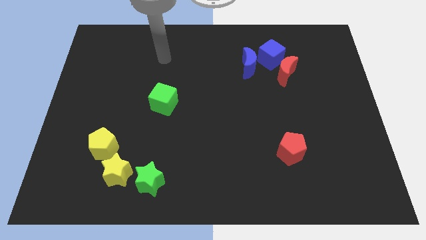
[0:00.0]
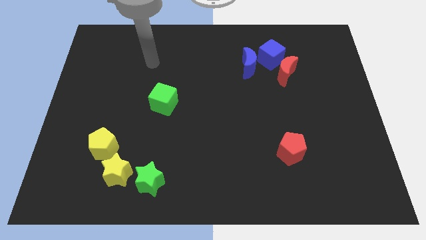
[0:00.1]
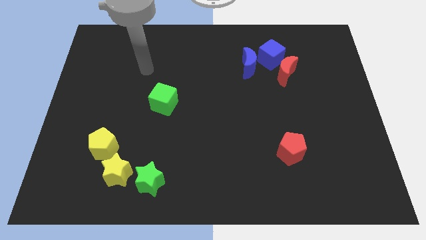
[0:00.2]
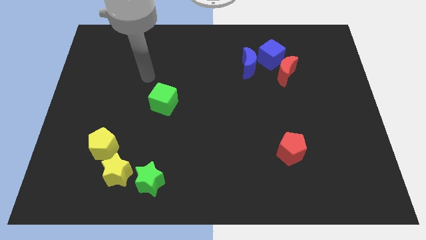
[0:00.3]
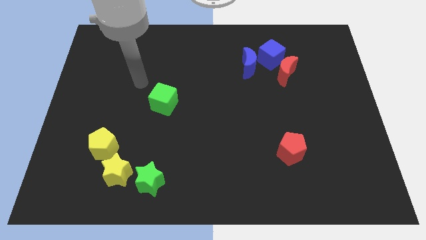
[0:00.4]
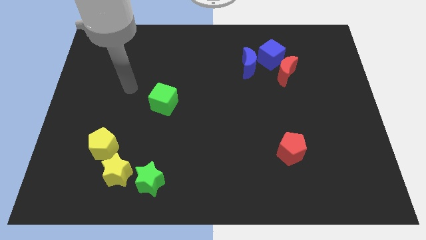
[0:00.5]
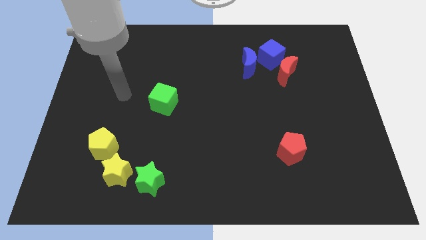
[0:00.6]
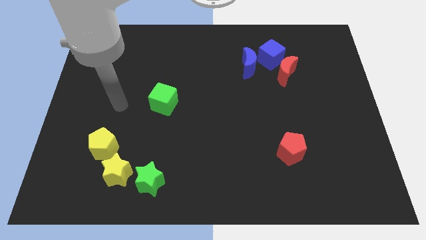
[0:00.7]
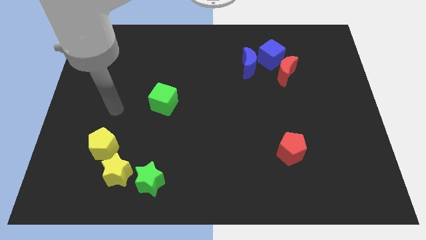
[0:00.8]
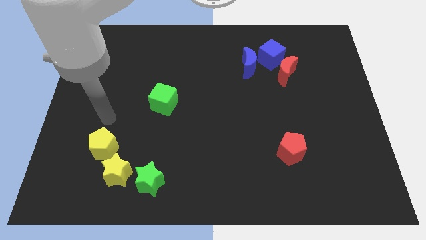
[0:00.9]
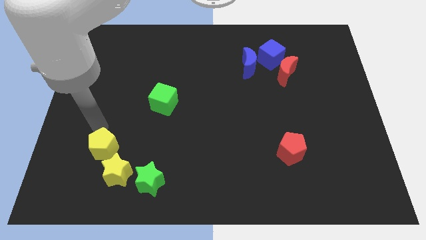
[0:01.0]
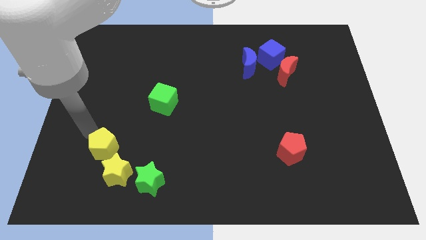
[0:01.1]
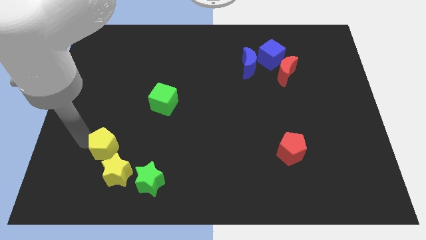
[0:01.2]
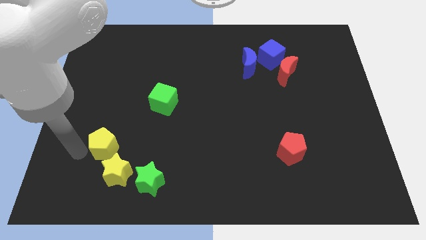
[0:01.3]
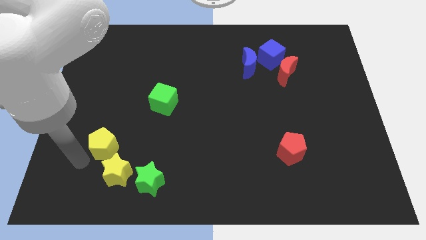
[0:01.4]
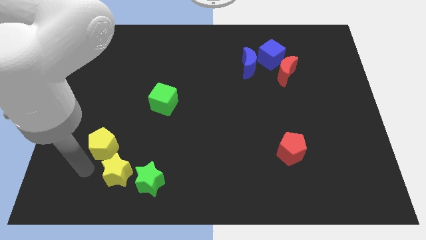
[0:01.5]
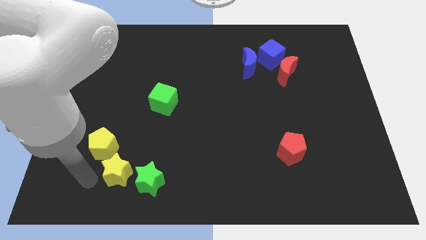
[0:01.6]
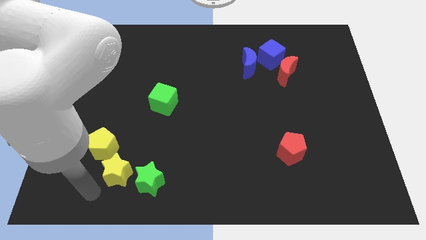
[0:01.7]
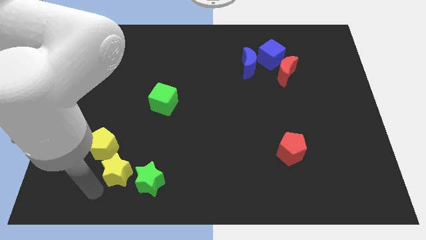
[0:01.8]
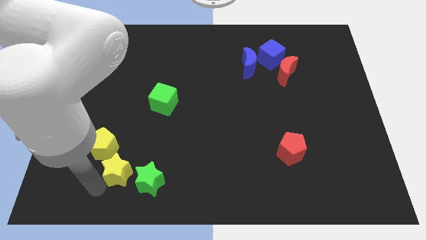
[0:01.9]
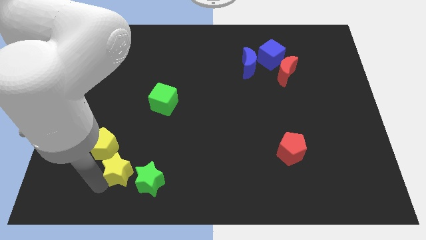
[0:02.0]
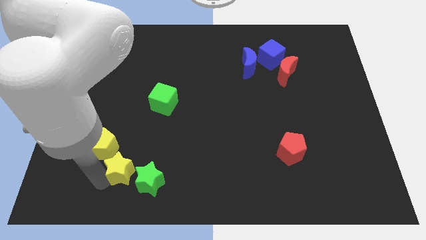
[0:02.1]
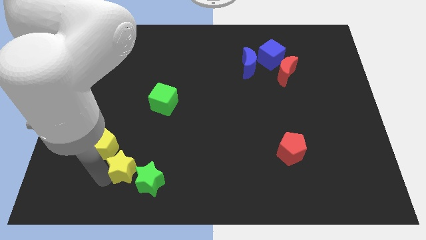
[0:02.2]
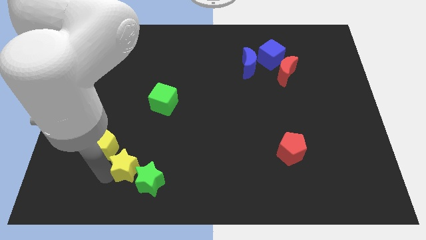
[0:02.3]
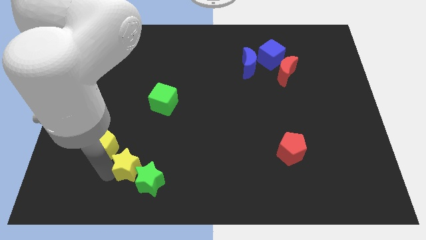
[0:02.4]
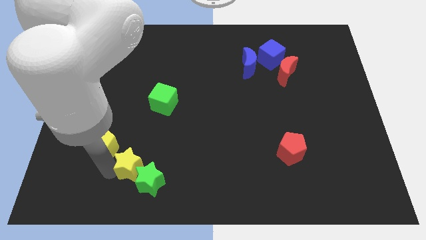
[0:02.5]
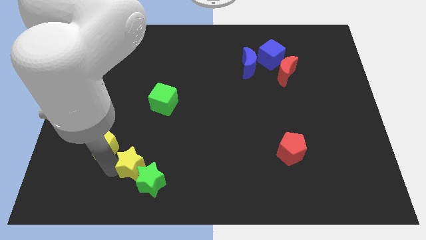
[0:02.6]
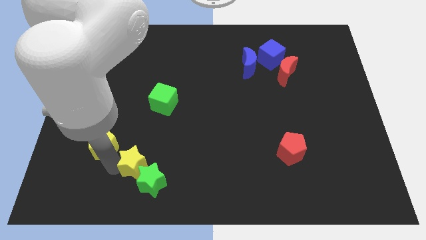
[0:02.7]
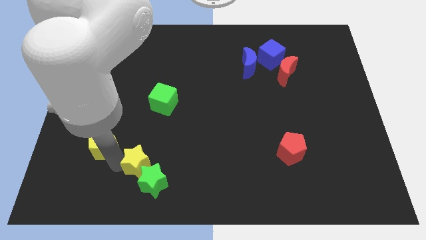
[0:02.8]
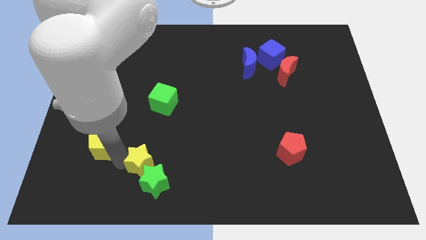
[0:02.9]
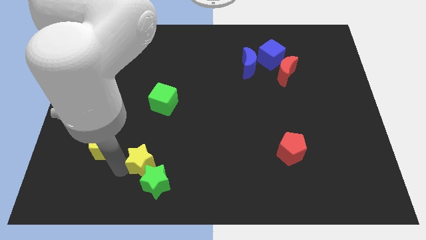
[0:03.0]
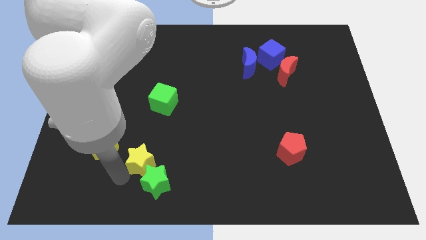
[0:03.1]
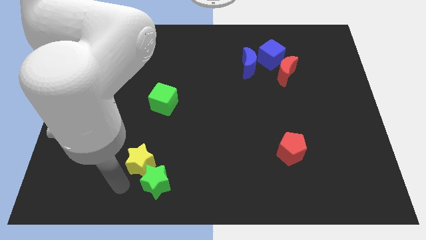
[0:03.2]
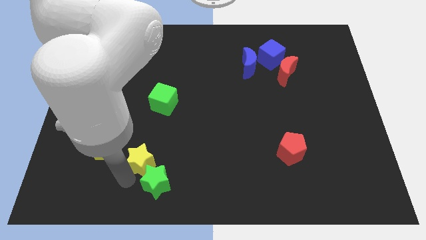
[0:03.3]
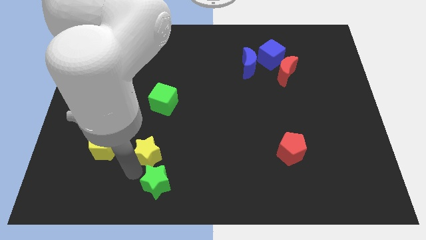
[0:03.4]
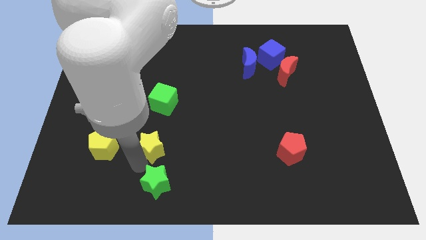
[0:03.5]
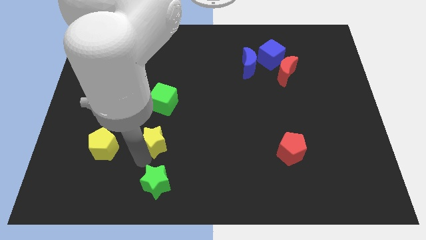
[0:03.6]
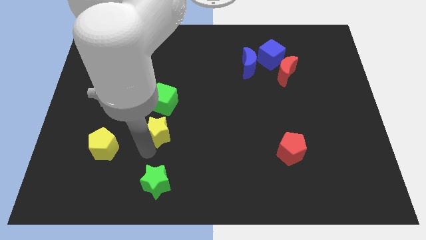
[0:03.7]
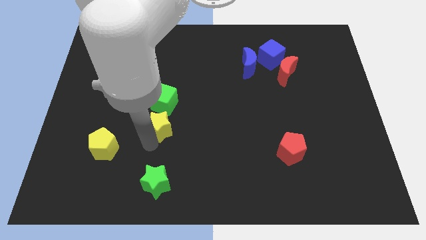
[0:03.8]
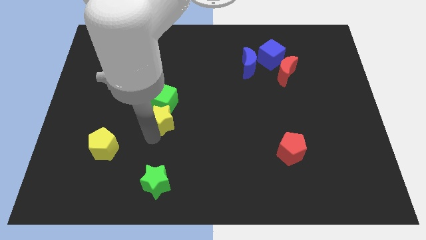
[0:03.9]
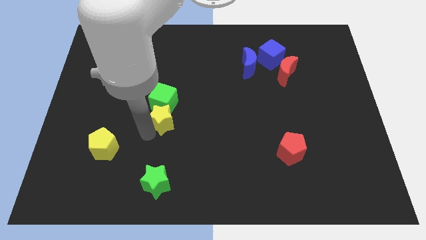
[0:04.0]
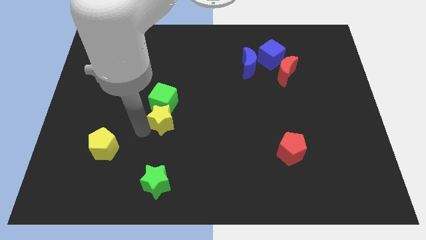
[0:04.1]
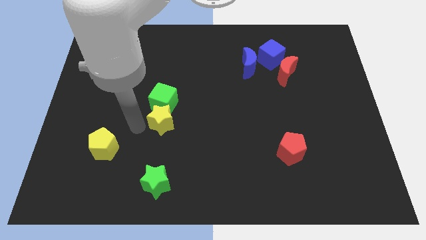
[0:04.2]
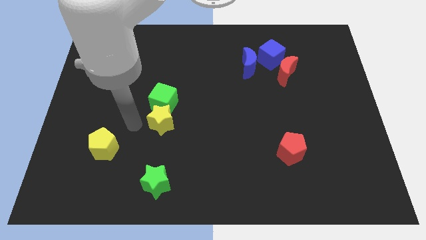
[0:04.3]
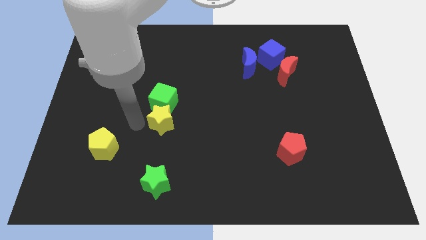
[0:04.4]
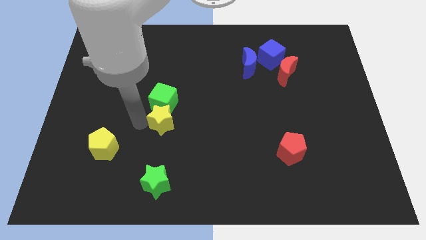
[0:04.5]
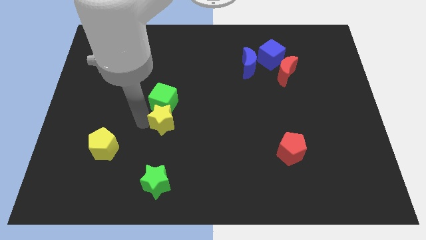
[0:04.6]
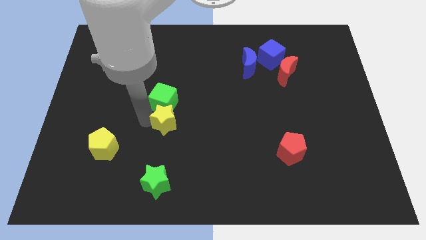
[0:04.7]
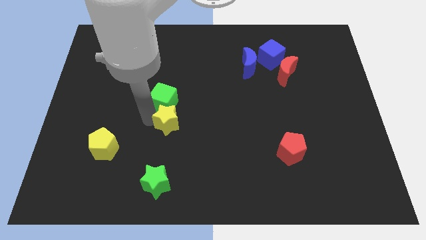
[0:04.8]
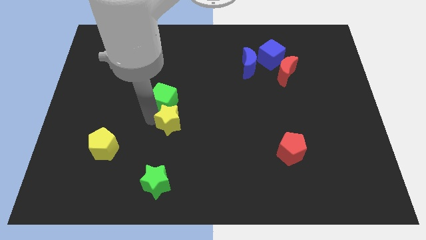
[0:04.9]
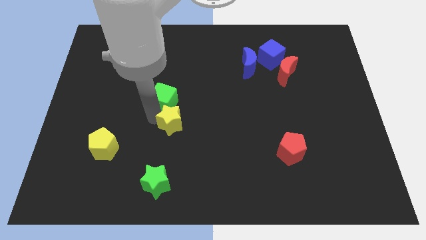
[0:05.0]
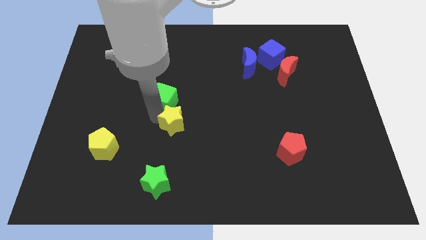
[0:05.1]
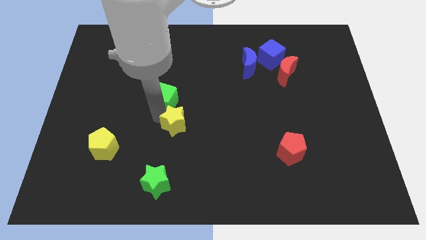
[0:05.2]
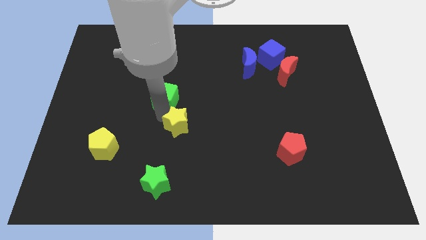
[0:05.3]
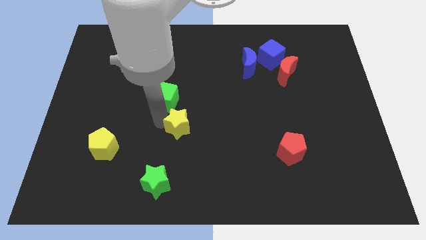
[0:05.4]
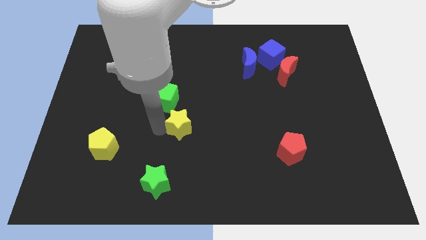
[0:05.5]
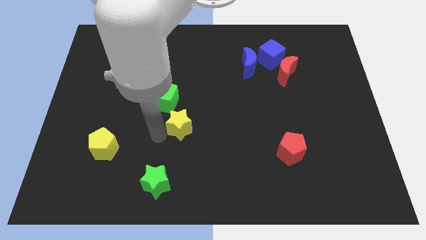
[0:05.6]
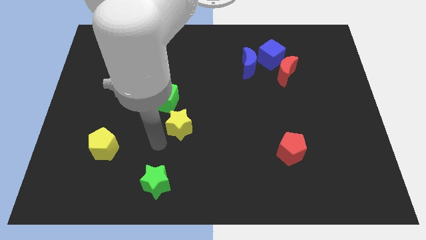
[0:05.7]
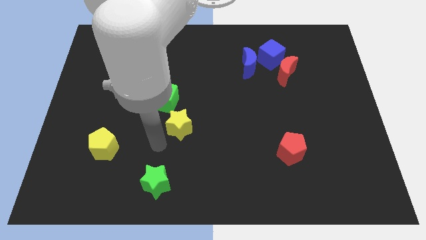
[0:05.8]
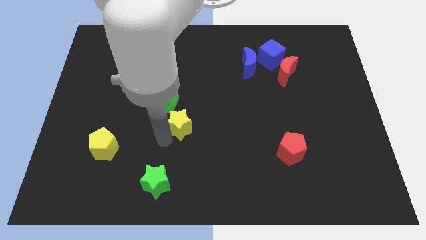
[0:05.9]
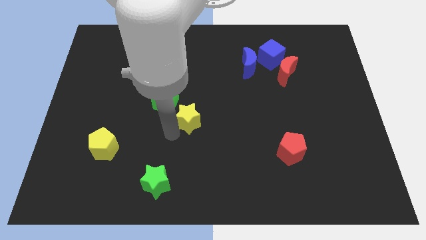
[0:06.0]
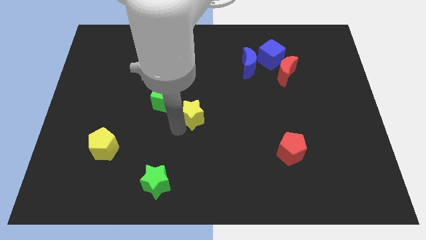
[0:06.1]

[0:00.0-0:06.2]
slide the yellow star up and to the right diagonally

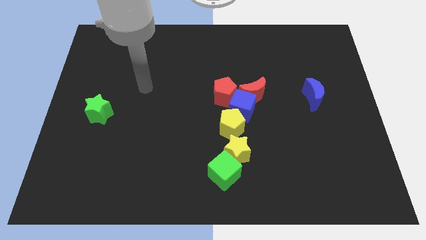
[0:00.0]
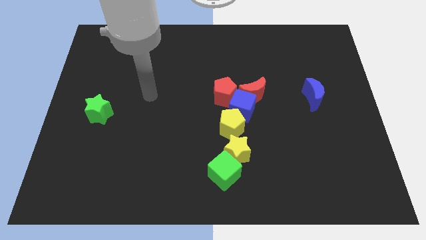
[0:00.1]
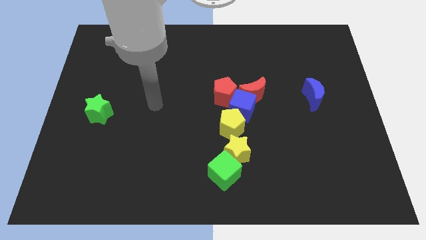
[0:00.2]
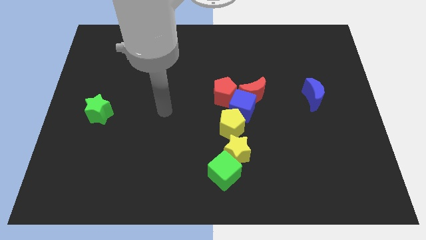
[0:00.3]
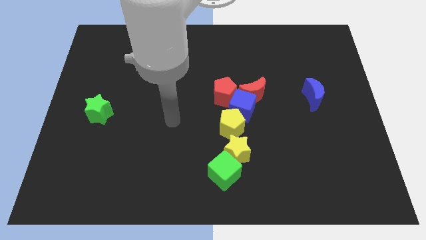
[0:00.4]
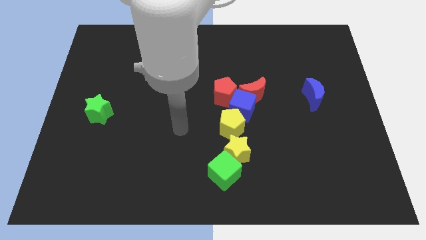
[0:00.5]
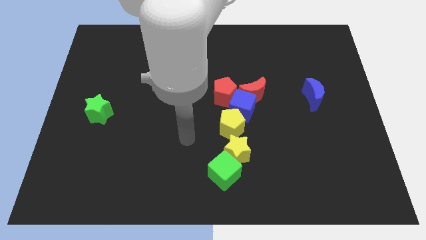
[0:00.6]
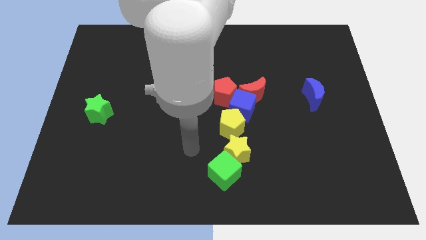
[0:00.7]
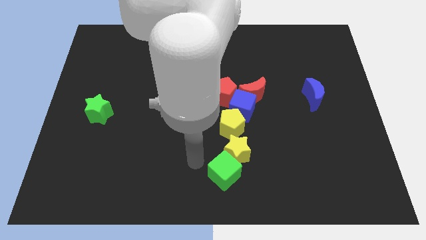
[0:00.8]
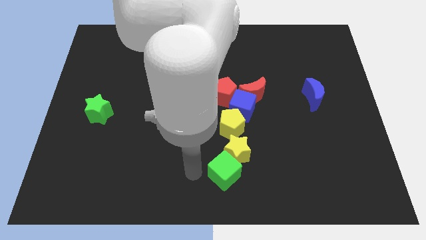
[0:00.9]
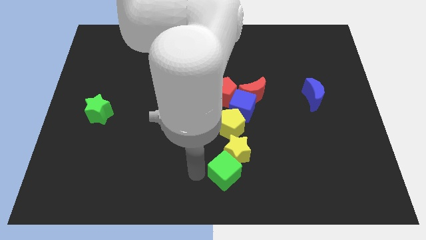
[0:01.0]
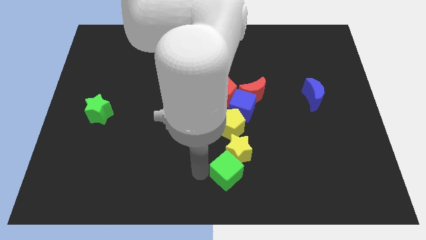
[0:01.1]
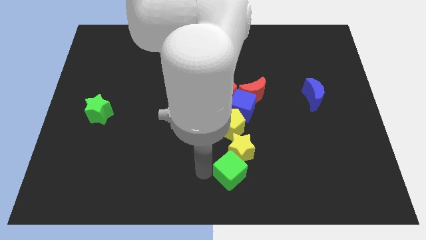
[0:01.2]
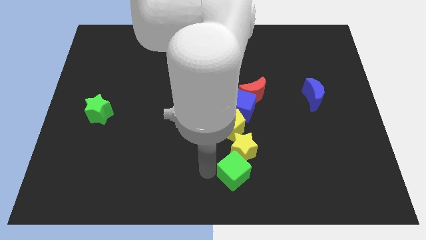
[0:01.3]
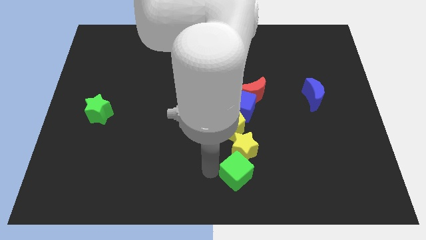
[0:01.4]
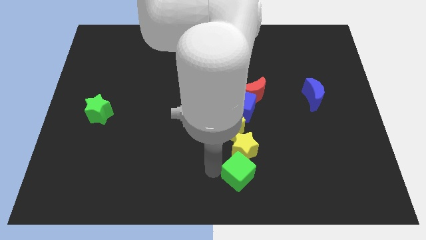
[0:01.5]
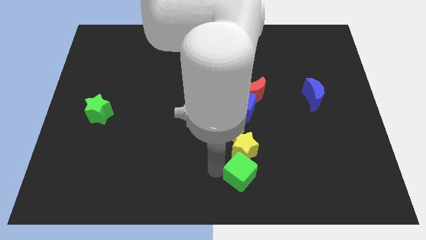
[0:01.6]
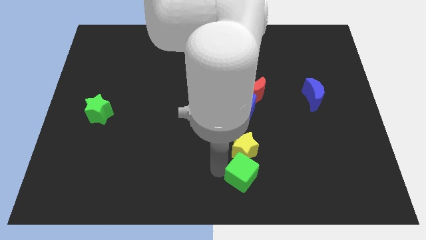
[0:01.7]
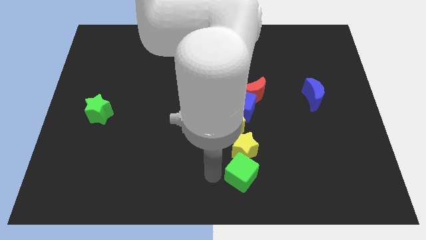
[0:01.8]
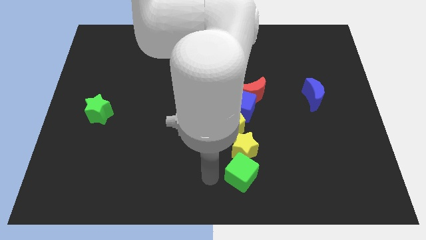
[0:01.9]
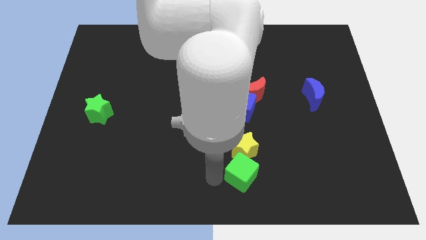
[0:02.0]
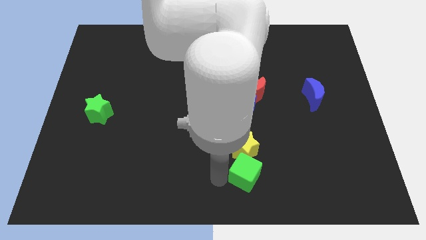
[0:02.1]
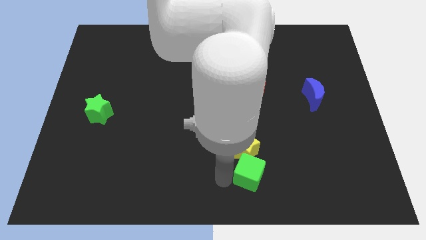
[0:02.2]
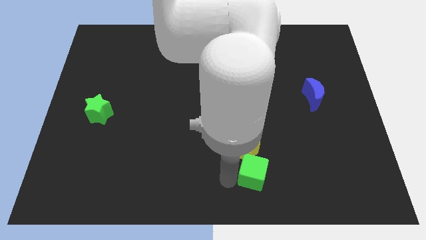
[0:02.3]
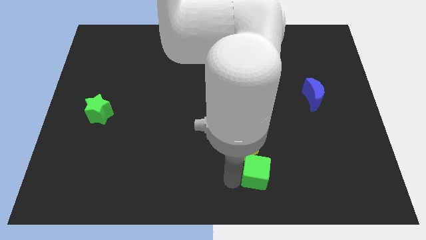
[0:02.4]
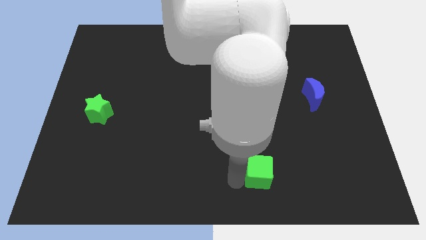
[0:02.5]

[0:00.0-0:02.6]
push the green cube slightly right
